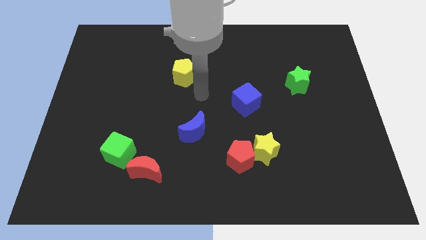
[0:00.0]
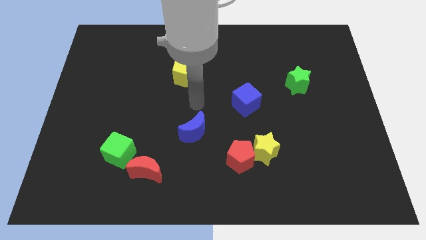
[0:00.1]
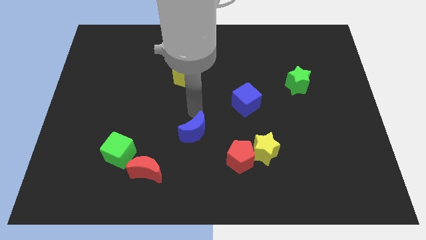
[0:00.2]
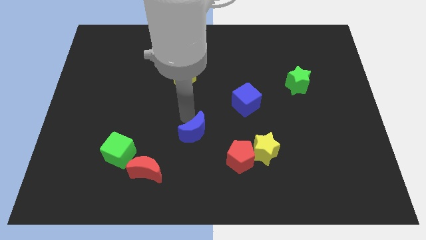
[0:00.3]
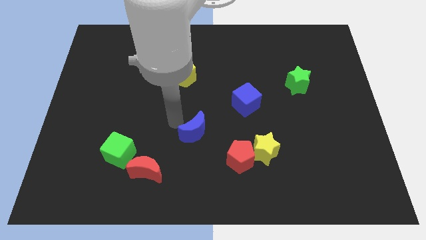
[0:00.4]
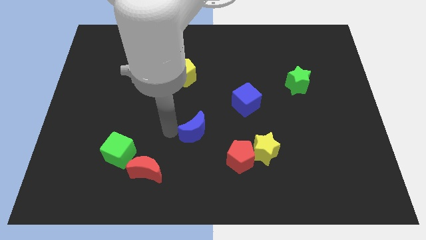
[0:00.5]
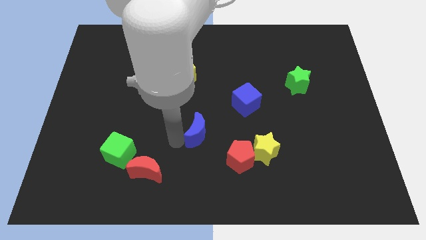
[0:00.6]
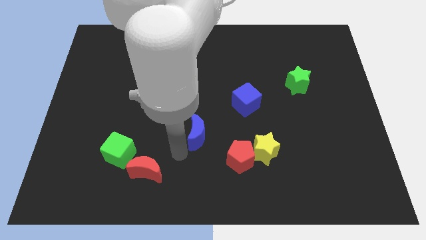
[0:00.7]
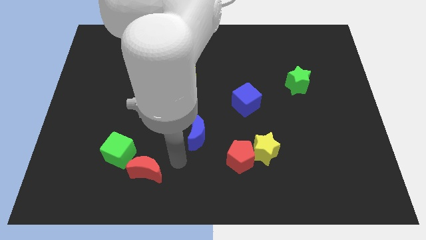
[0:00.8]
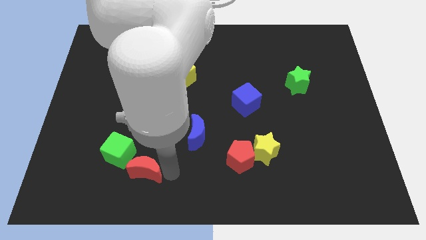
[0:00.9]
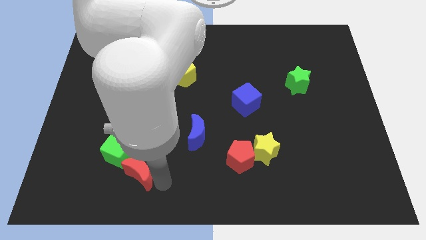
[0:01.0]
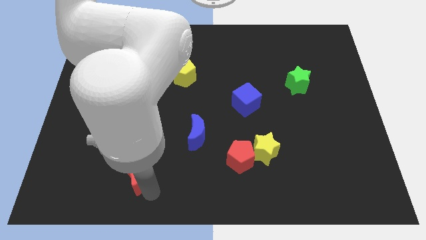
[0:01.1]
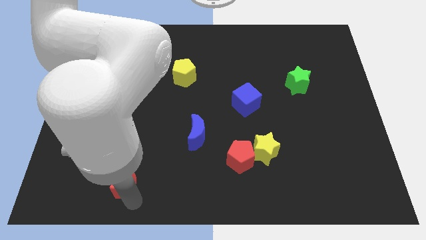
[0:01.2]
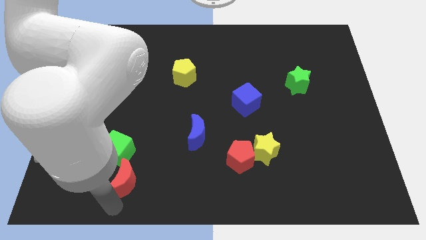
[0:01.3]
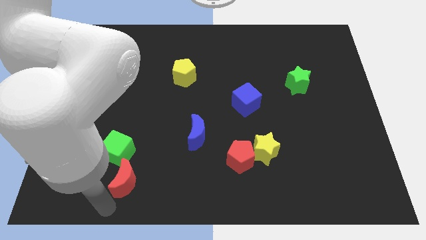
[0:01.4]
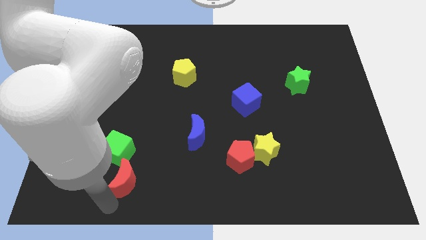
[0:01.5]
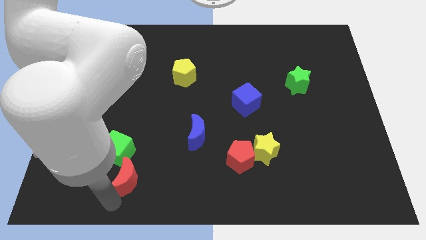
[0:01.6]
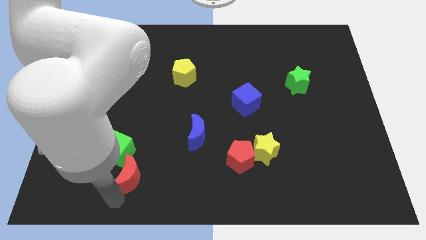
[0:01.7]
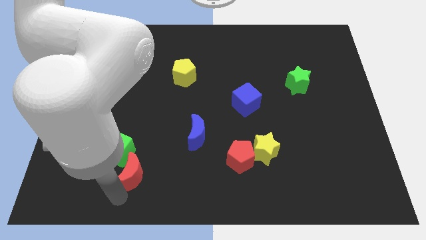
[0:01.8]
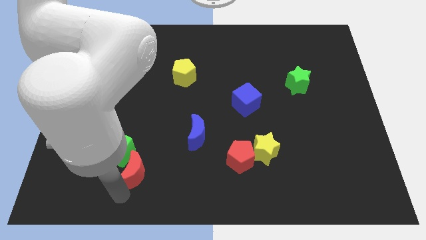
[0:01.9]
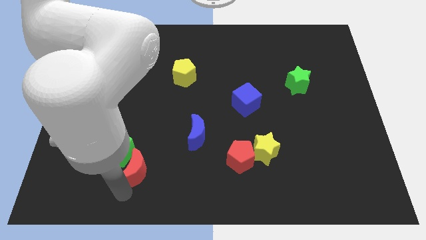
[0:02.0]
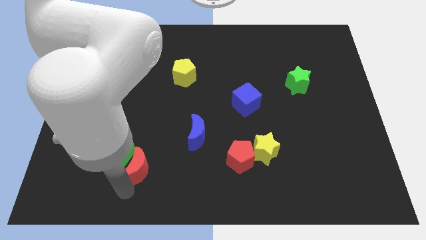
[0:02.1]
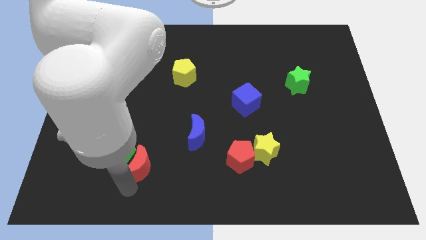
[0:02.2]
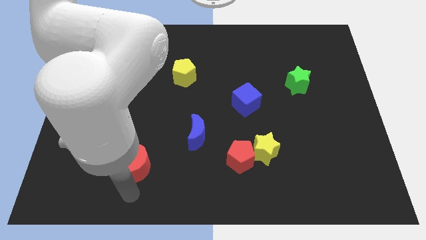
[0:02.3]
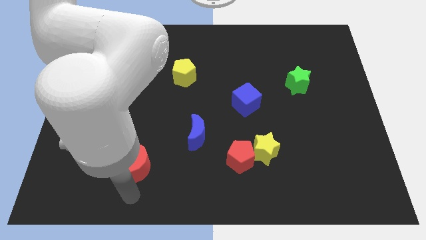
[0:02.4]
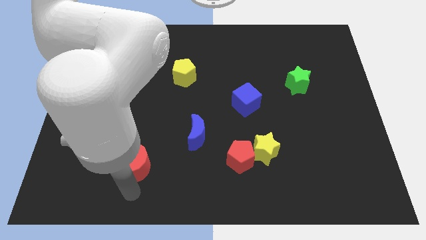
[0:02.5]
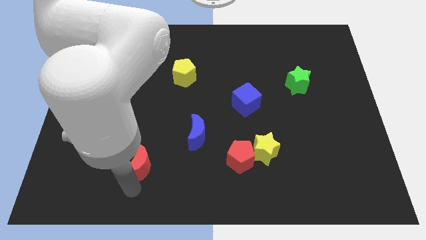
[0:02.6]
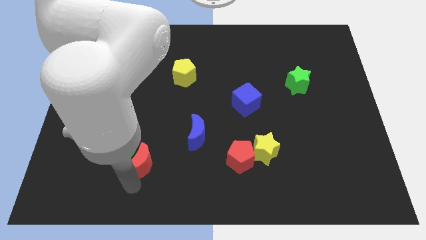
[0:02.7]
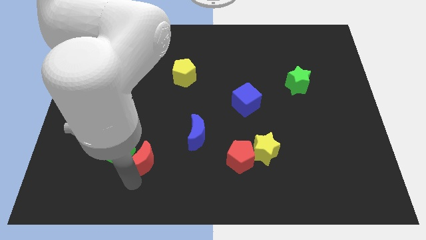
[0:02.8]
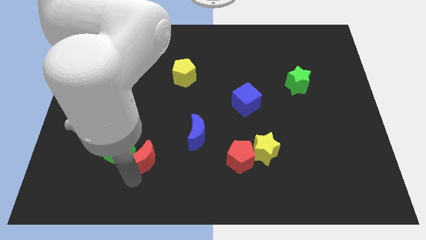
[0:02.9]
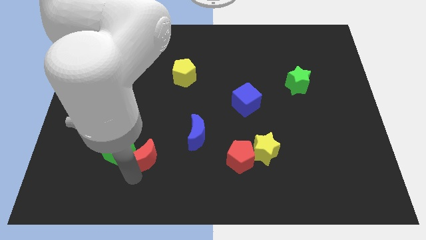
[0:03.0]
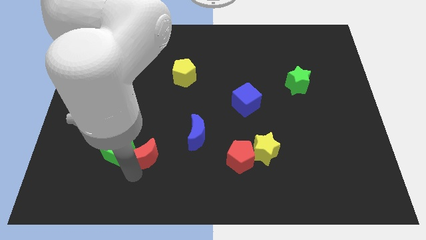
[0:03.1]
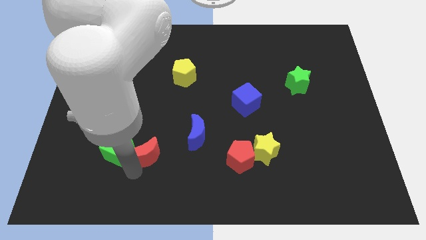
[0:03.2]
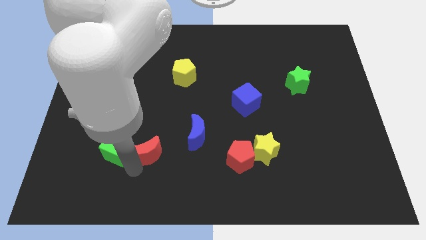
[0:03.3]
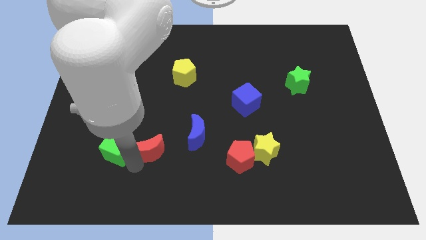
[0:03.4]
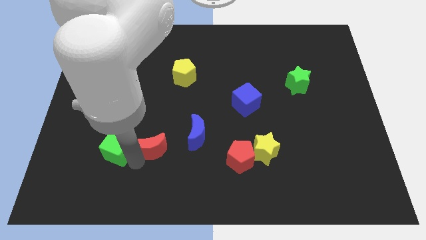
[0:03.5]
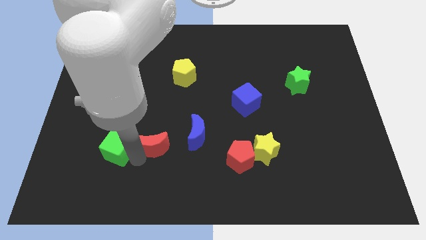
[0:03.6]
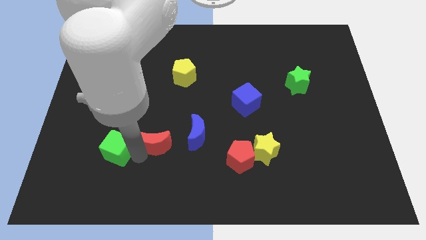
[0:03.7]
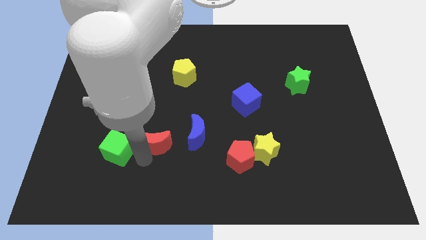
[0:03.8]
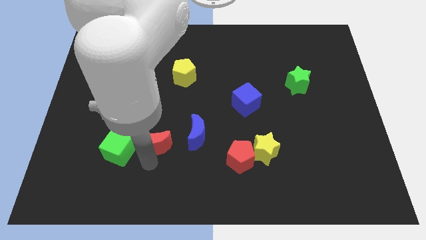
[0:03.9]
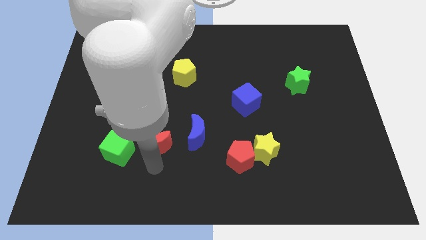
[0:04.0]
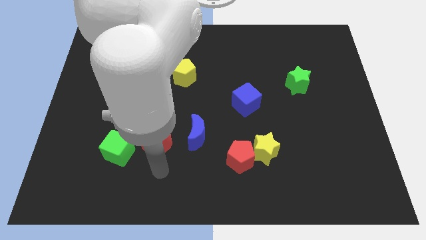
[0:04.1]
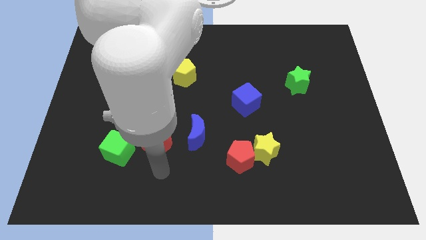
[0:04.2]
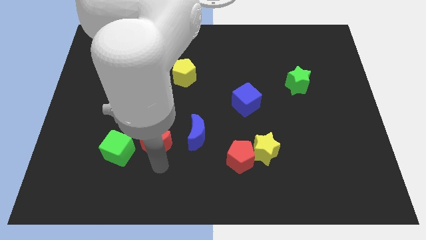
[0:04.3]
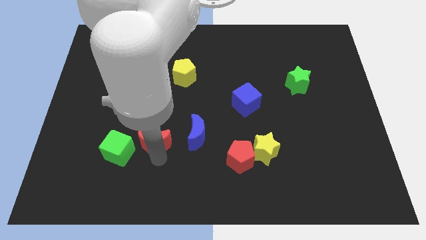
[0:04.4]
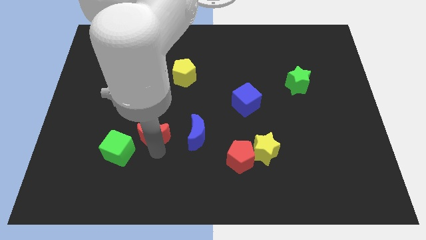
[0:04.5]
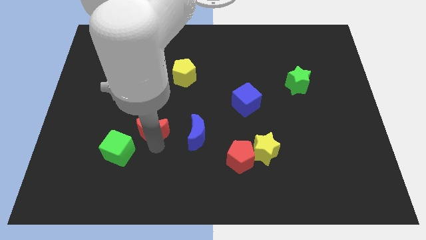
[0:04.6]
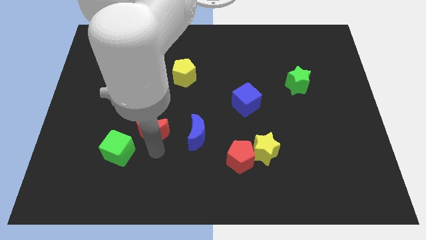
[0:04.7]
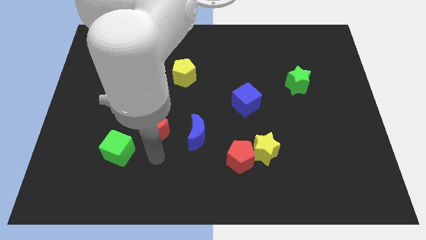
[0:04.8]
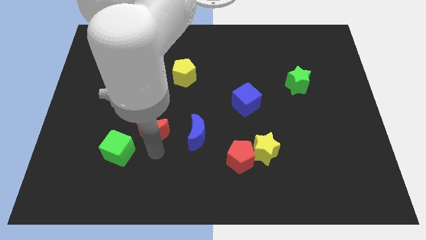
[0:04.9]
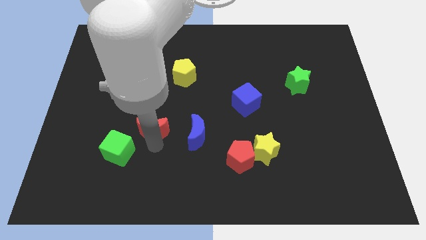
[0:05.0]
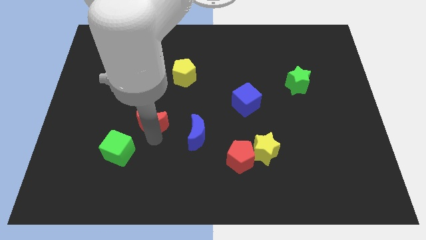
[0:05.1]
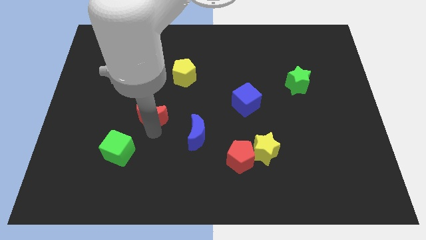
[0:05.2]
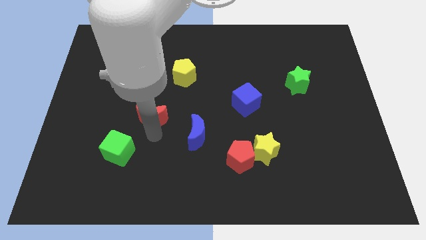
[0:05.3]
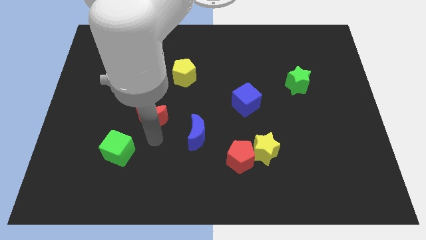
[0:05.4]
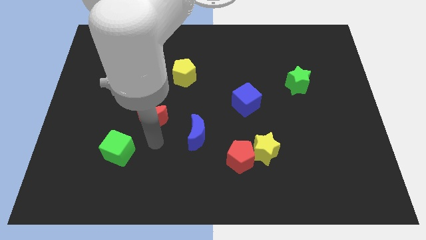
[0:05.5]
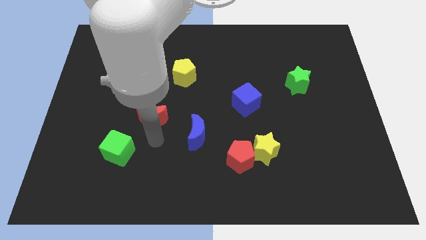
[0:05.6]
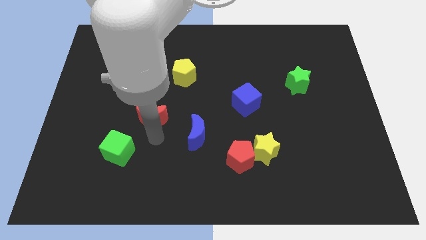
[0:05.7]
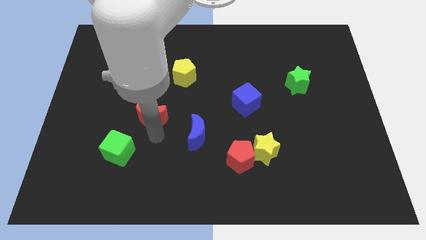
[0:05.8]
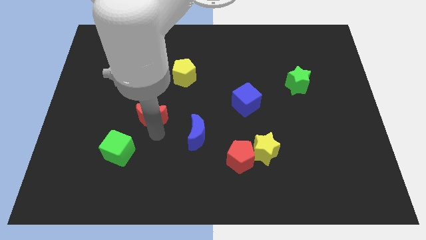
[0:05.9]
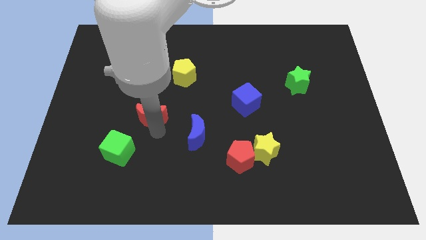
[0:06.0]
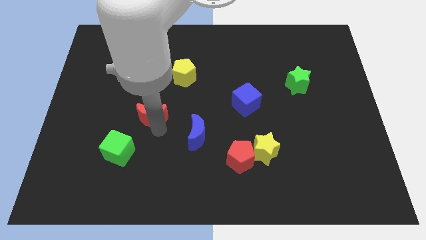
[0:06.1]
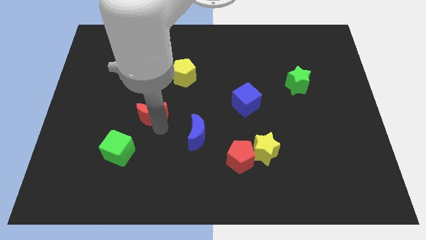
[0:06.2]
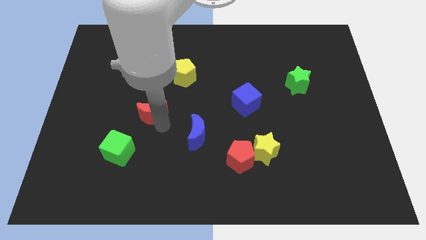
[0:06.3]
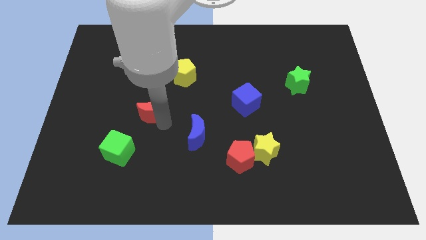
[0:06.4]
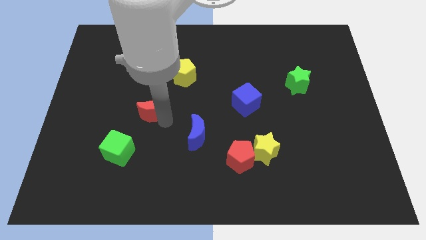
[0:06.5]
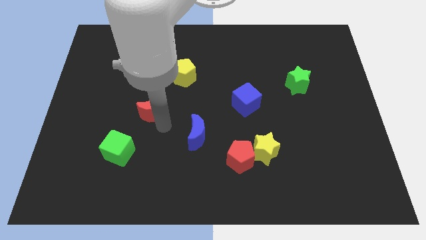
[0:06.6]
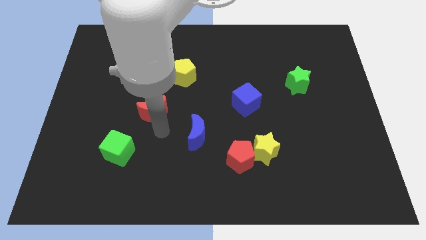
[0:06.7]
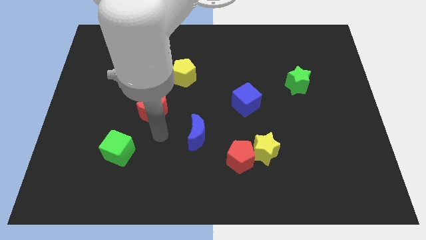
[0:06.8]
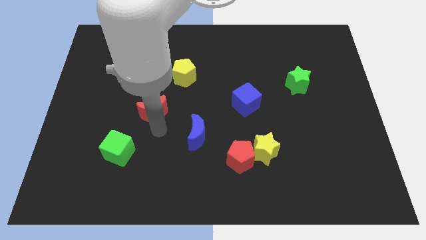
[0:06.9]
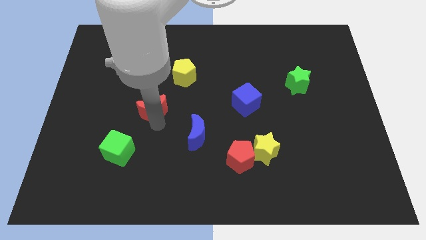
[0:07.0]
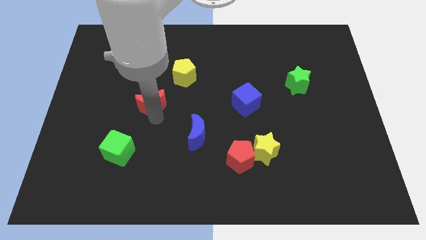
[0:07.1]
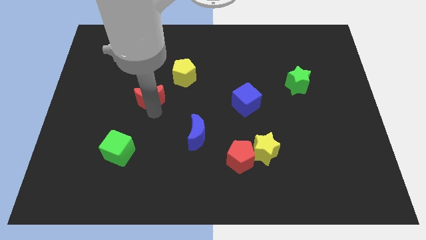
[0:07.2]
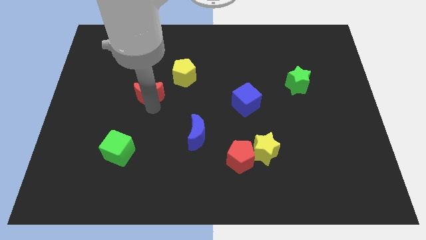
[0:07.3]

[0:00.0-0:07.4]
slide the red moon upwards

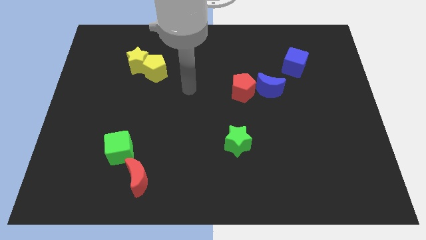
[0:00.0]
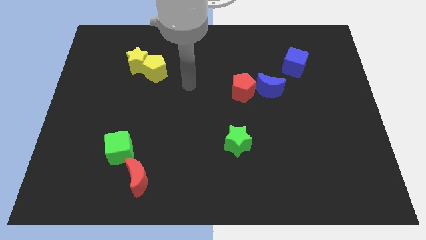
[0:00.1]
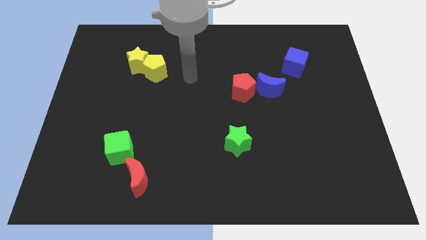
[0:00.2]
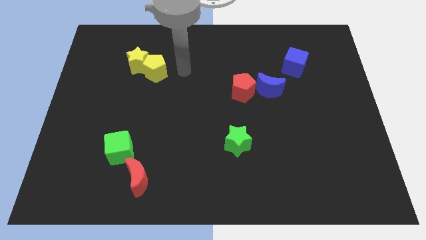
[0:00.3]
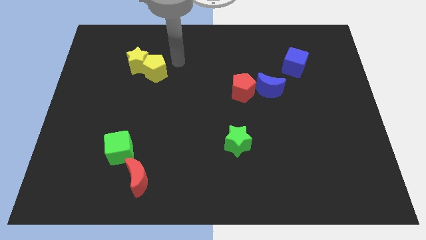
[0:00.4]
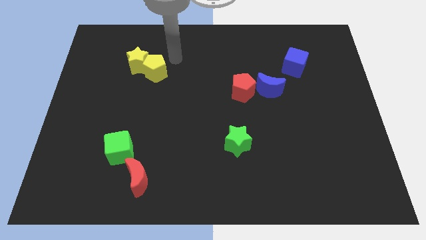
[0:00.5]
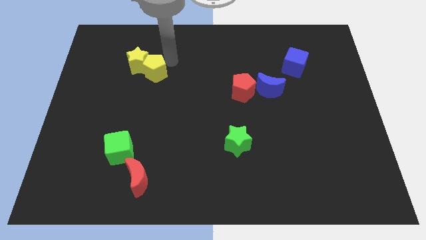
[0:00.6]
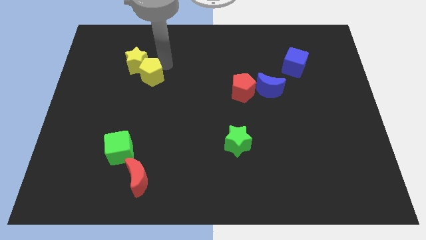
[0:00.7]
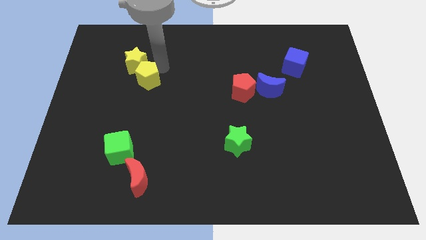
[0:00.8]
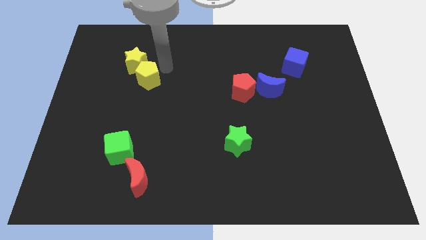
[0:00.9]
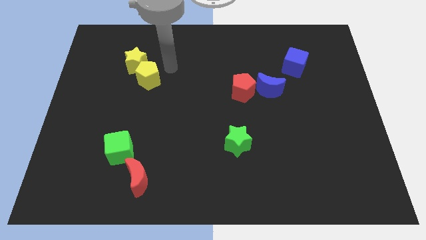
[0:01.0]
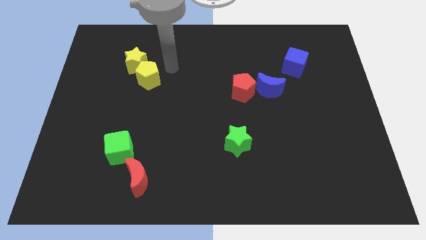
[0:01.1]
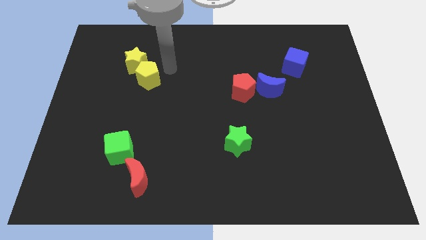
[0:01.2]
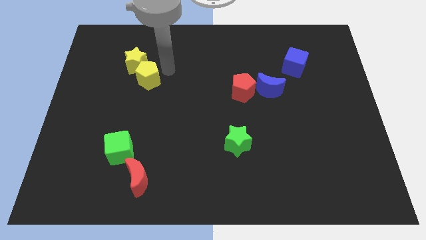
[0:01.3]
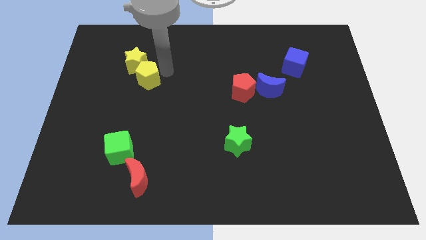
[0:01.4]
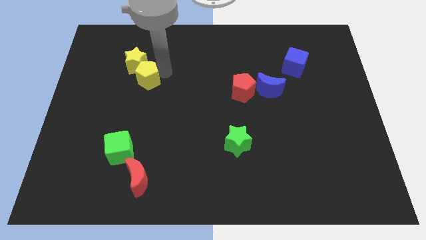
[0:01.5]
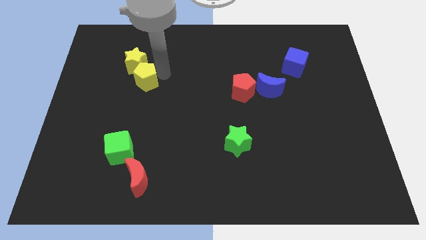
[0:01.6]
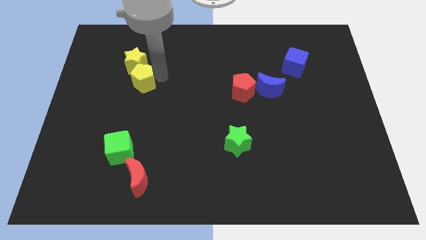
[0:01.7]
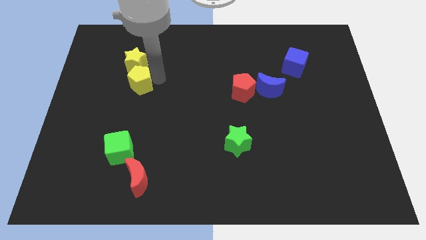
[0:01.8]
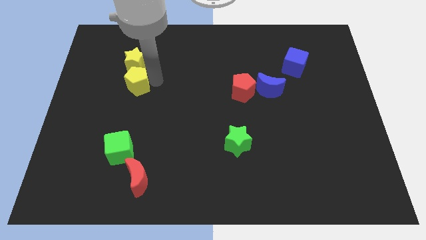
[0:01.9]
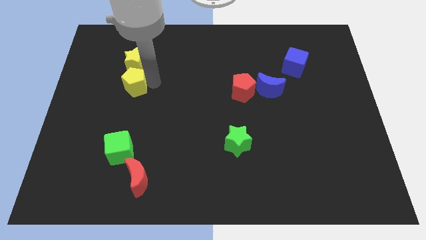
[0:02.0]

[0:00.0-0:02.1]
slightly slide the yellow pentagon diagonally down and to the left
